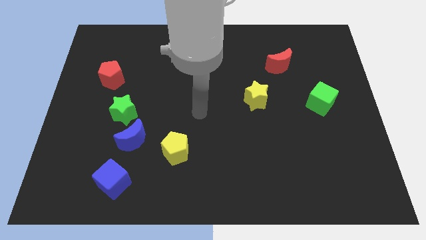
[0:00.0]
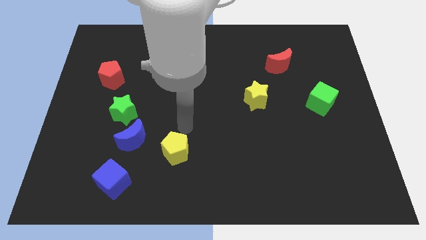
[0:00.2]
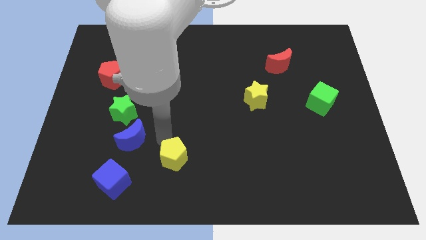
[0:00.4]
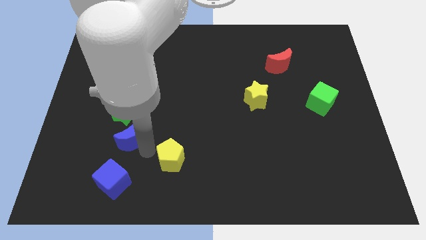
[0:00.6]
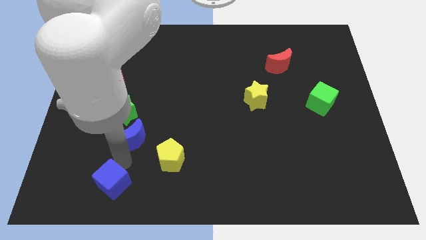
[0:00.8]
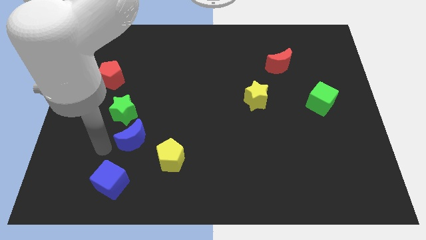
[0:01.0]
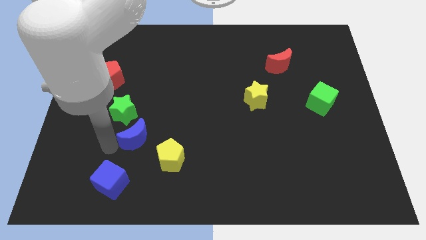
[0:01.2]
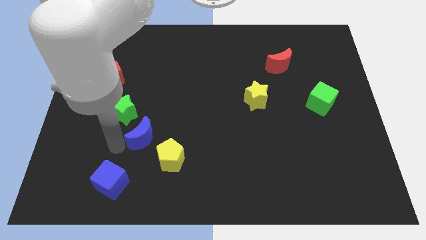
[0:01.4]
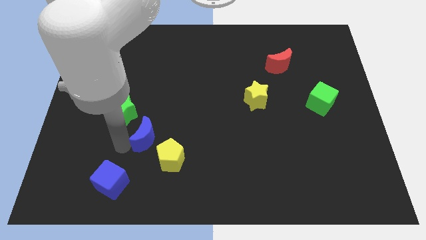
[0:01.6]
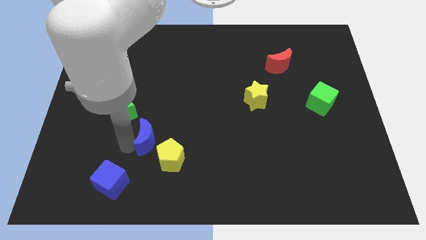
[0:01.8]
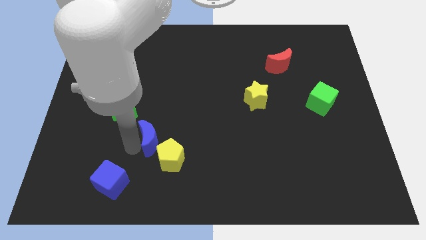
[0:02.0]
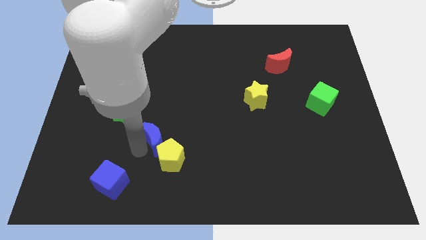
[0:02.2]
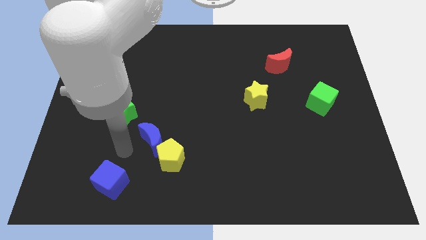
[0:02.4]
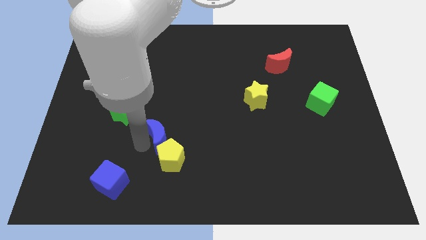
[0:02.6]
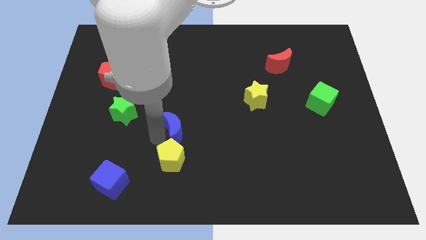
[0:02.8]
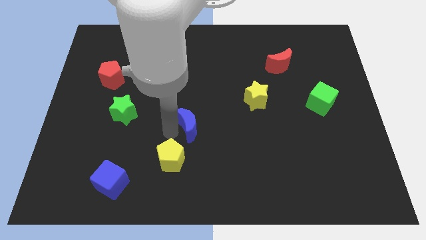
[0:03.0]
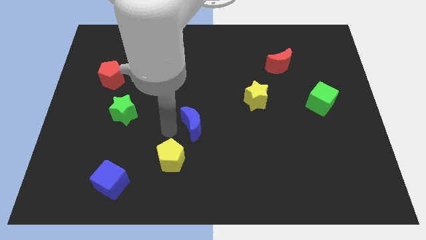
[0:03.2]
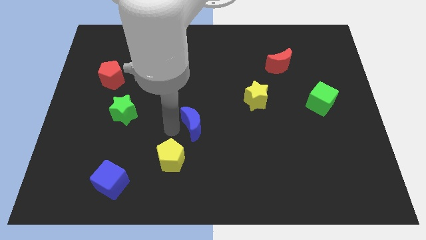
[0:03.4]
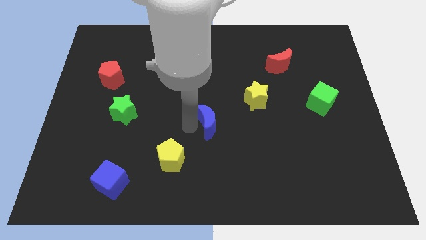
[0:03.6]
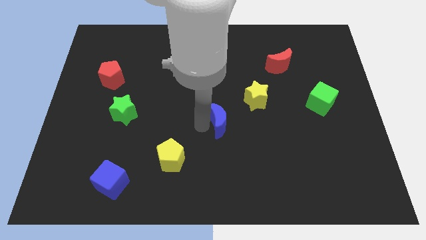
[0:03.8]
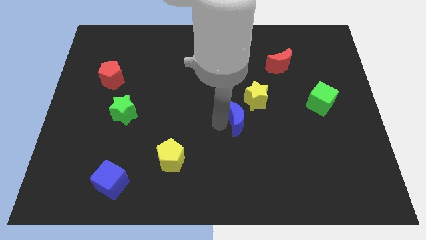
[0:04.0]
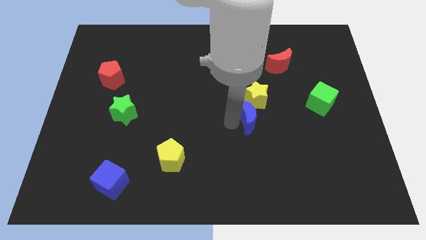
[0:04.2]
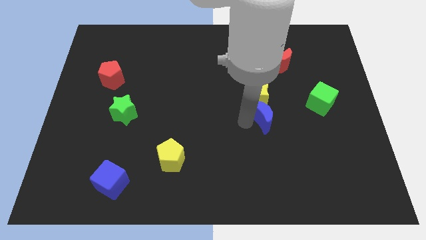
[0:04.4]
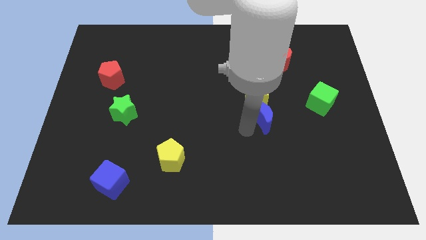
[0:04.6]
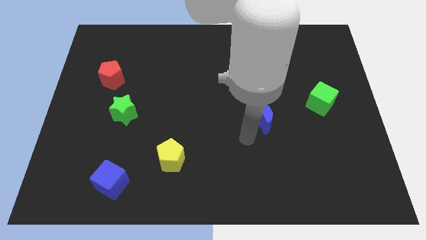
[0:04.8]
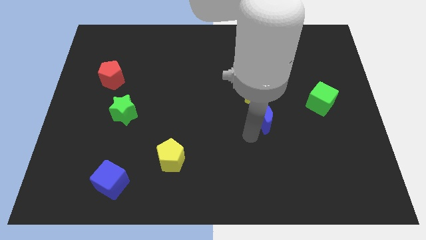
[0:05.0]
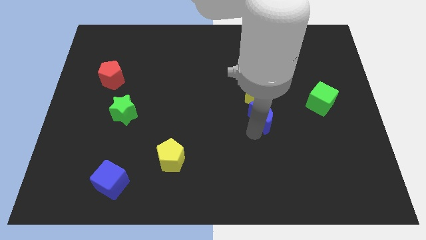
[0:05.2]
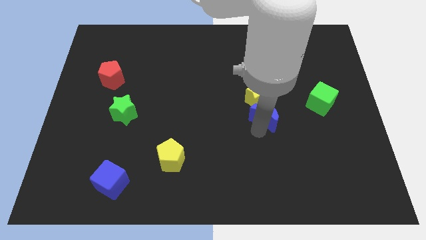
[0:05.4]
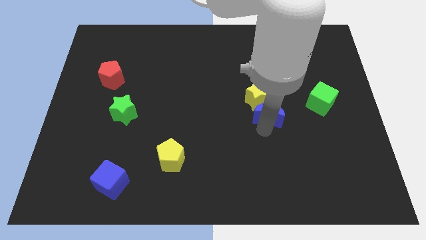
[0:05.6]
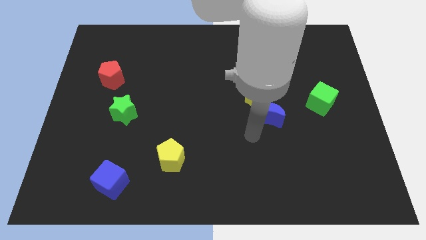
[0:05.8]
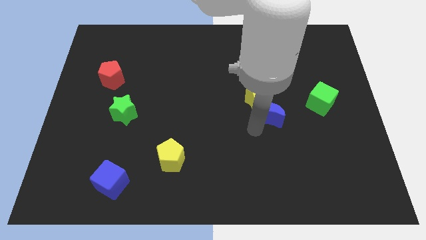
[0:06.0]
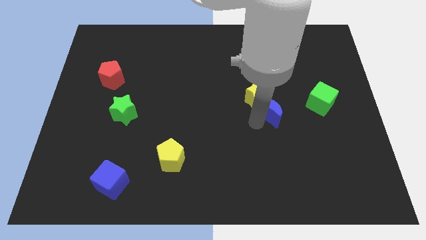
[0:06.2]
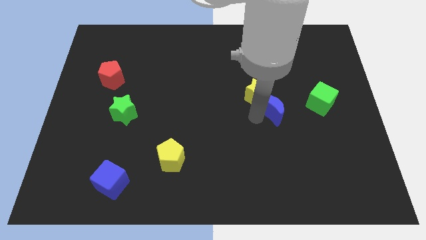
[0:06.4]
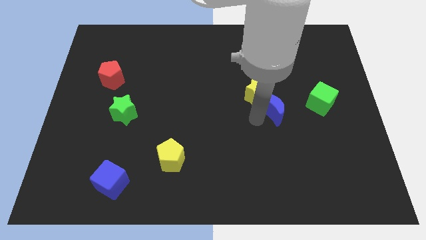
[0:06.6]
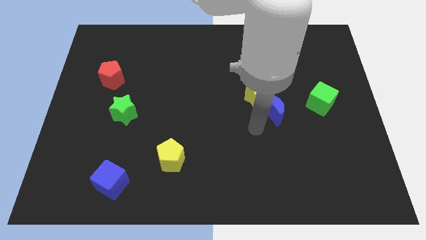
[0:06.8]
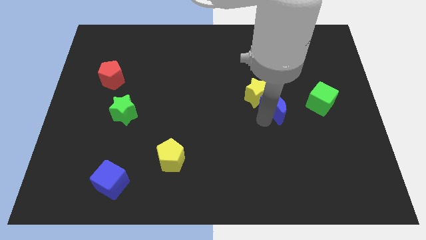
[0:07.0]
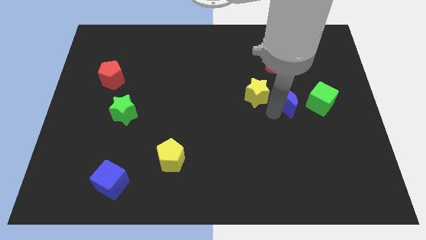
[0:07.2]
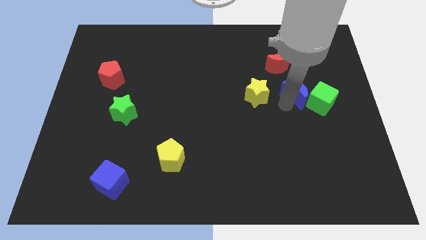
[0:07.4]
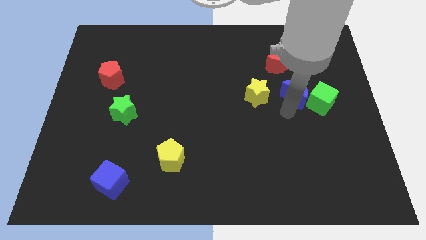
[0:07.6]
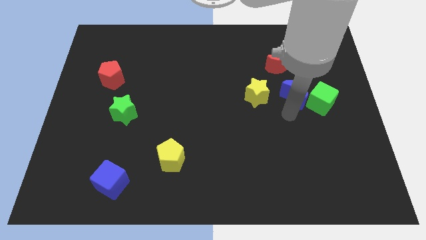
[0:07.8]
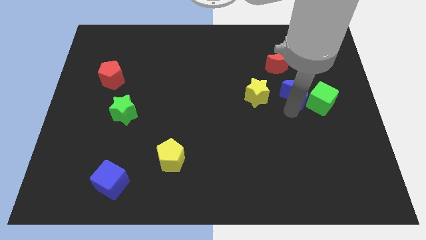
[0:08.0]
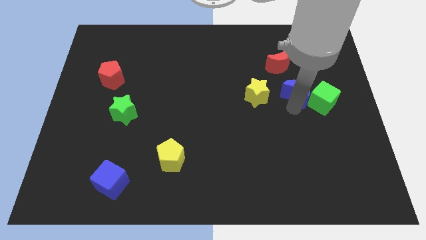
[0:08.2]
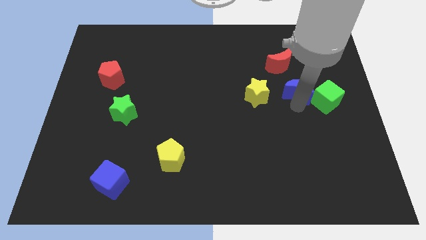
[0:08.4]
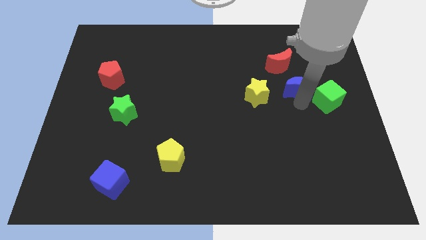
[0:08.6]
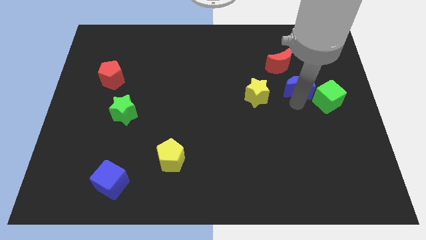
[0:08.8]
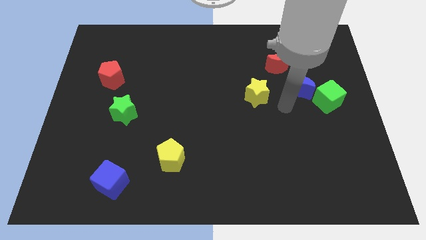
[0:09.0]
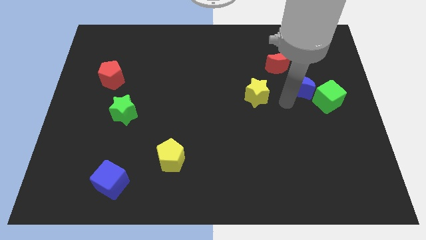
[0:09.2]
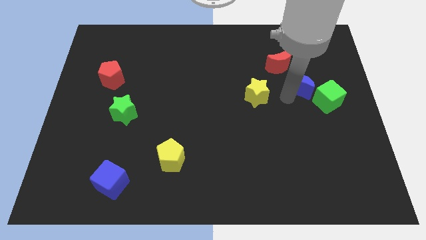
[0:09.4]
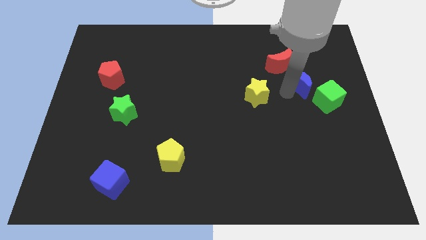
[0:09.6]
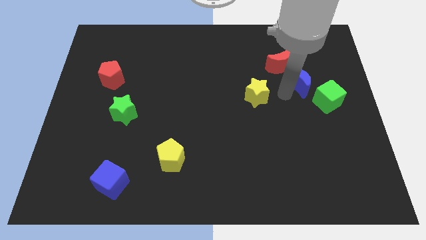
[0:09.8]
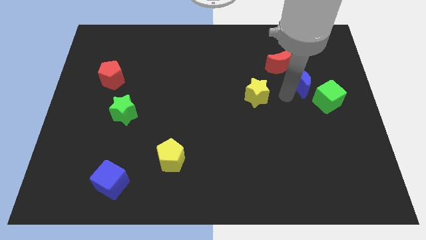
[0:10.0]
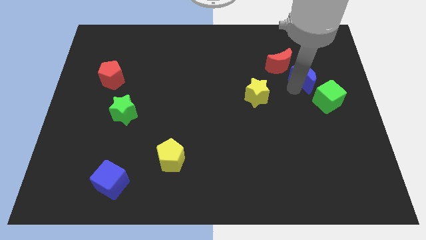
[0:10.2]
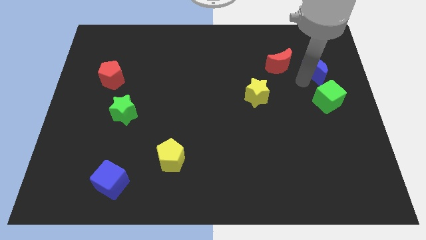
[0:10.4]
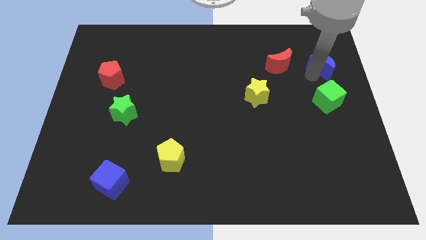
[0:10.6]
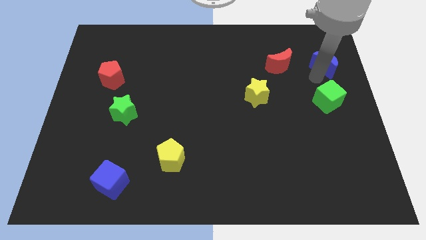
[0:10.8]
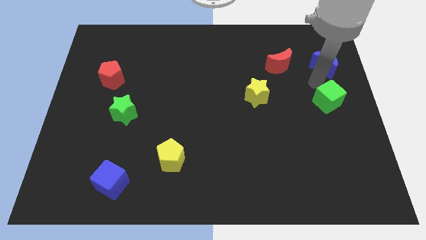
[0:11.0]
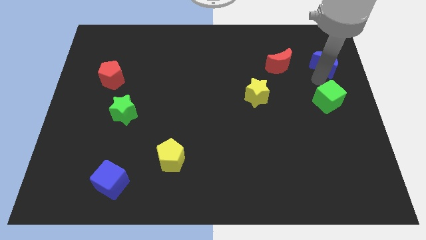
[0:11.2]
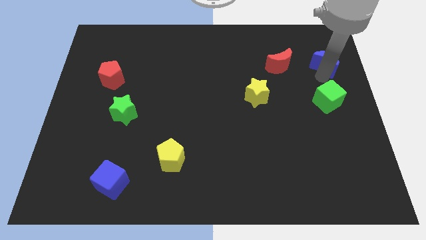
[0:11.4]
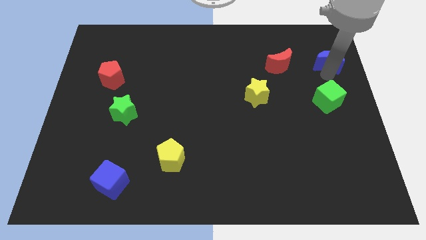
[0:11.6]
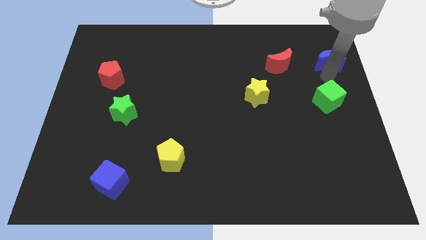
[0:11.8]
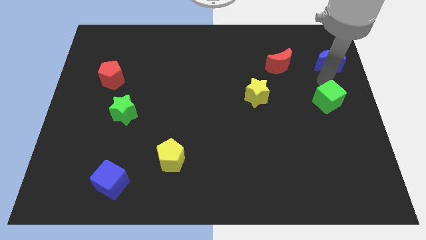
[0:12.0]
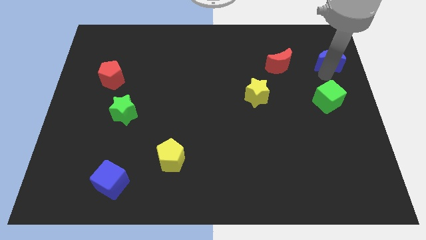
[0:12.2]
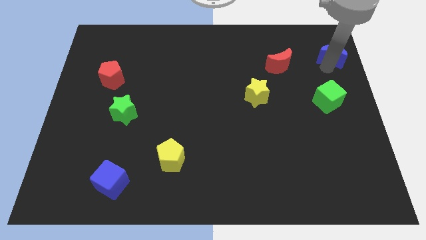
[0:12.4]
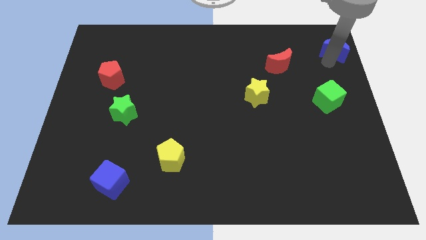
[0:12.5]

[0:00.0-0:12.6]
put the blue moon to the upper right corner
